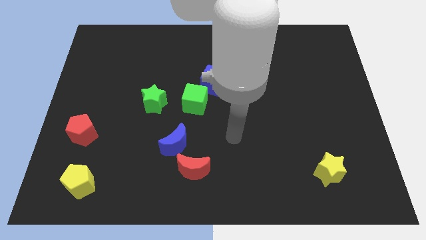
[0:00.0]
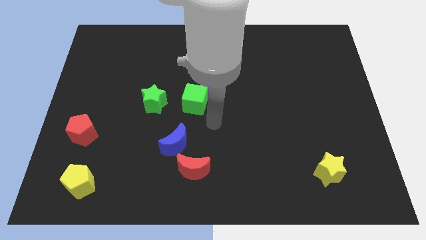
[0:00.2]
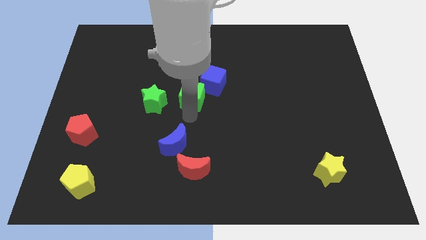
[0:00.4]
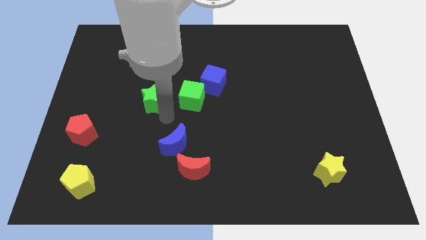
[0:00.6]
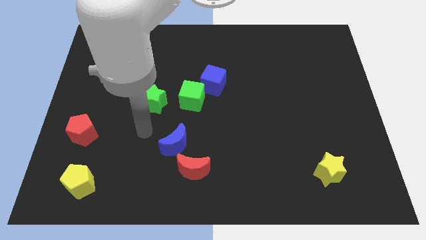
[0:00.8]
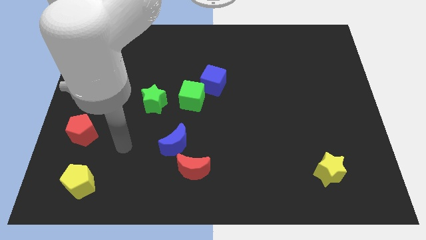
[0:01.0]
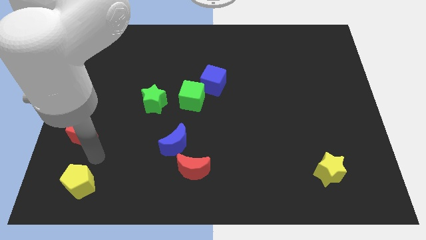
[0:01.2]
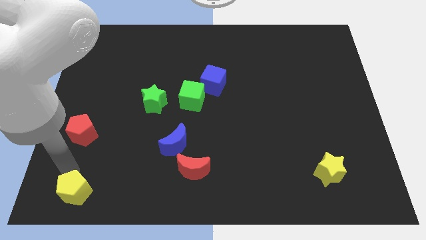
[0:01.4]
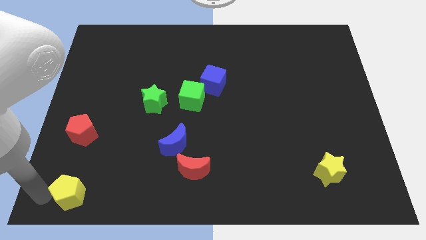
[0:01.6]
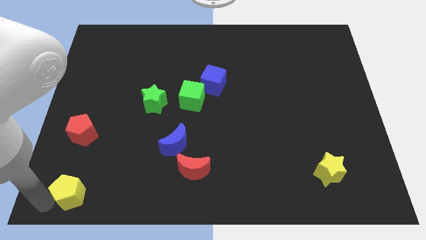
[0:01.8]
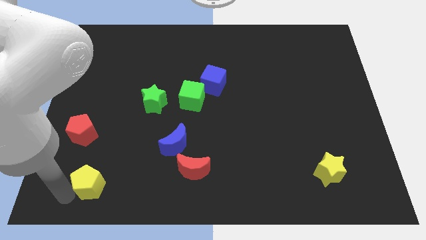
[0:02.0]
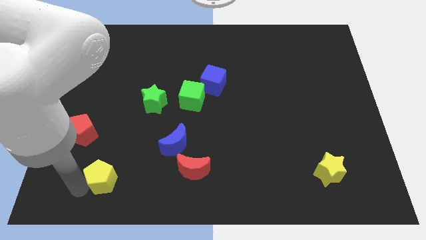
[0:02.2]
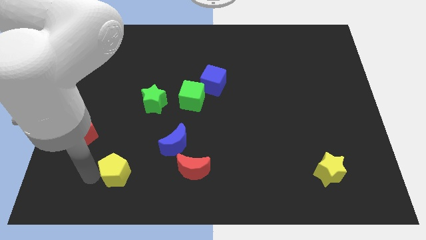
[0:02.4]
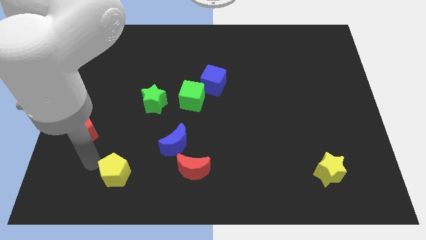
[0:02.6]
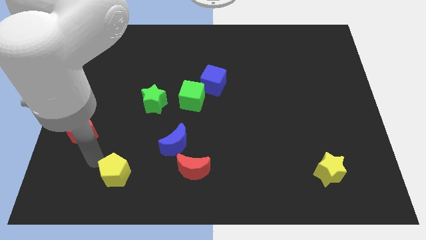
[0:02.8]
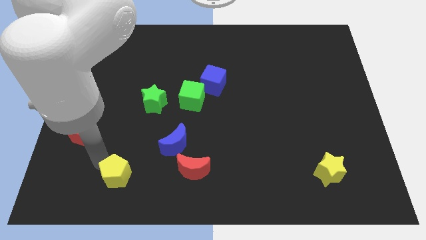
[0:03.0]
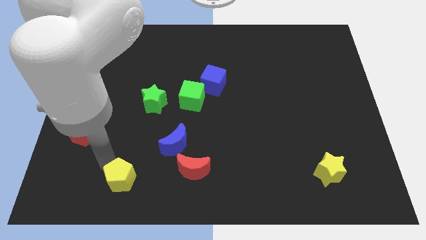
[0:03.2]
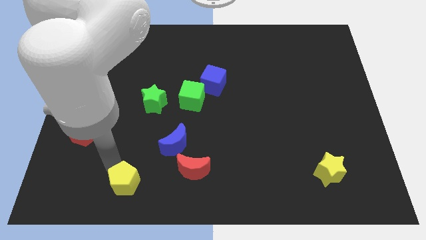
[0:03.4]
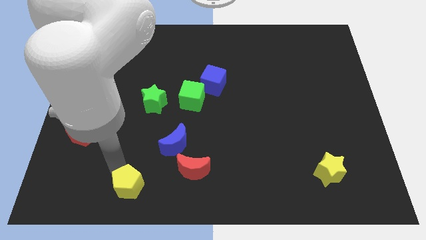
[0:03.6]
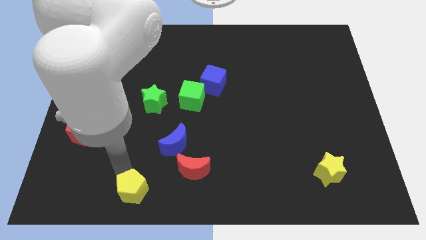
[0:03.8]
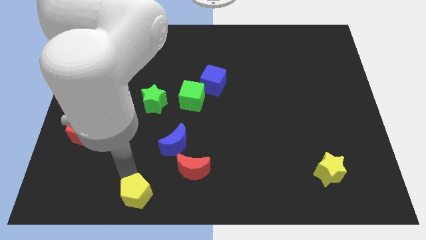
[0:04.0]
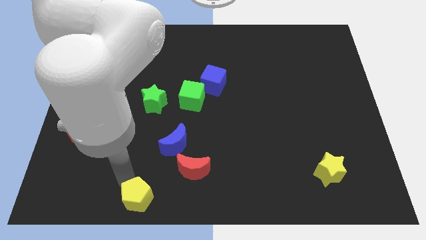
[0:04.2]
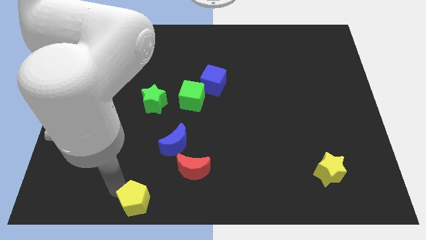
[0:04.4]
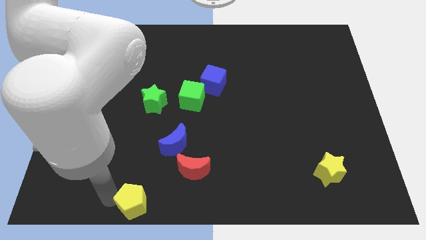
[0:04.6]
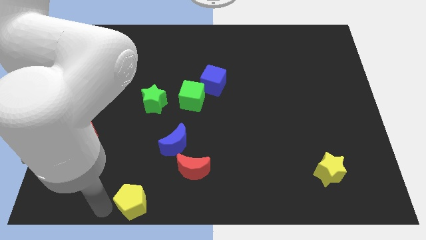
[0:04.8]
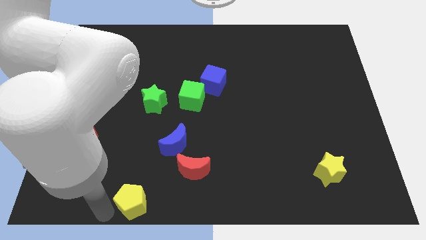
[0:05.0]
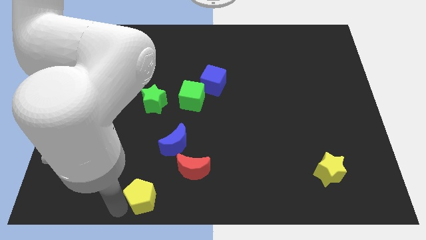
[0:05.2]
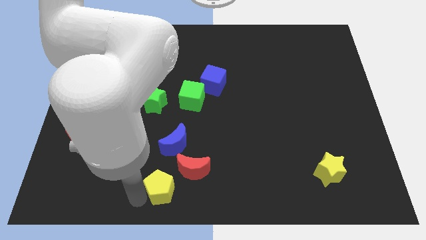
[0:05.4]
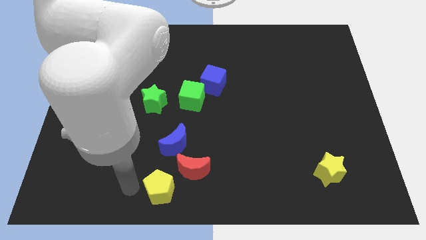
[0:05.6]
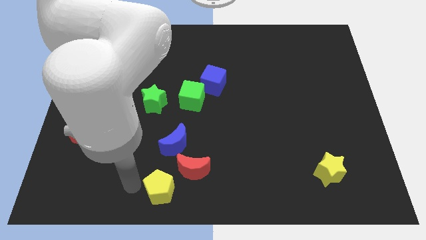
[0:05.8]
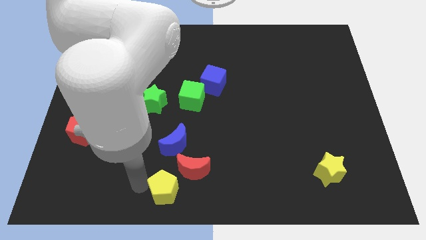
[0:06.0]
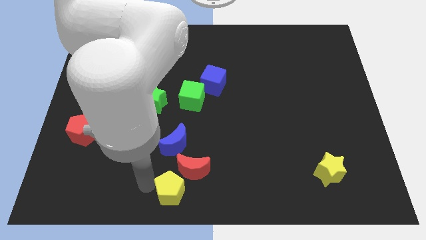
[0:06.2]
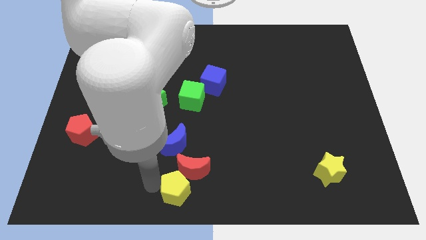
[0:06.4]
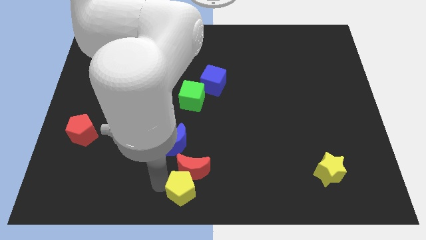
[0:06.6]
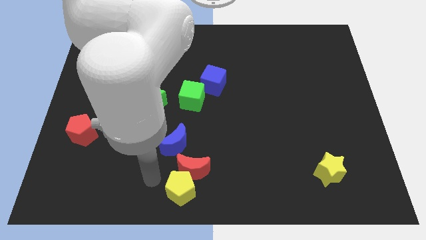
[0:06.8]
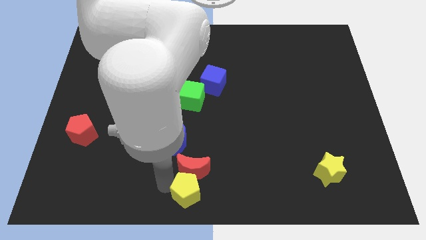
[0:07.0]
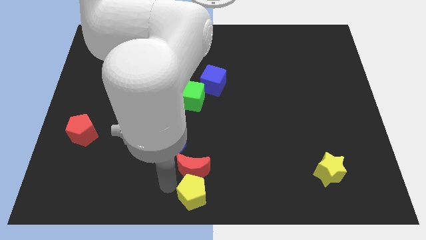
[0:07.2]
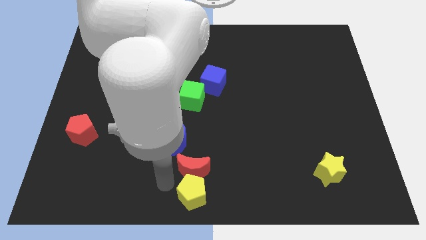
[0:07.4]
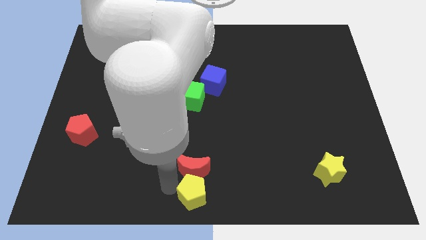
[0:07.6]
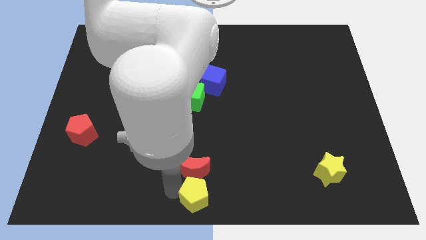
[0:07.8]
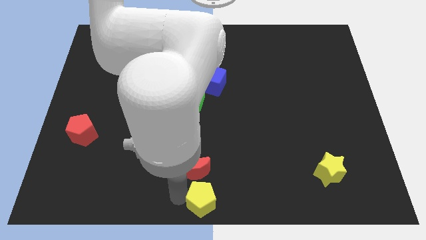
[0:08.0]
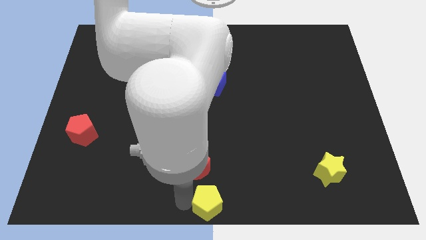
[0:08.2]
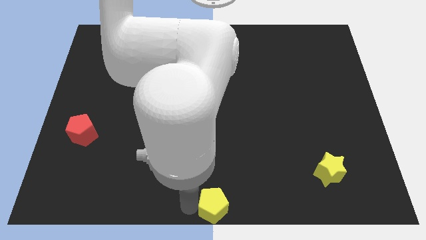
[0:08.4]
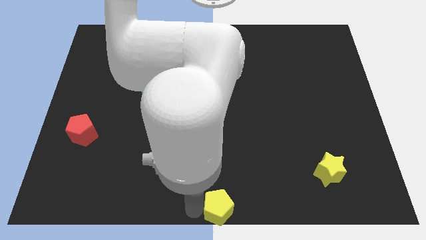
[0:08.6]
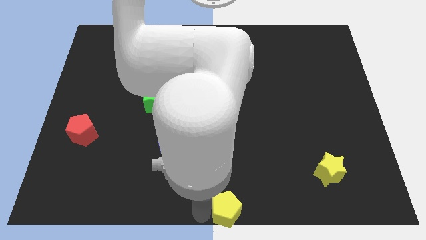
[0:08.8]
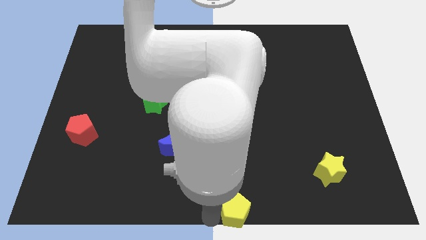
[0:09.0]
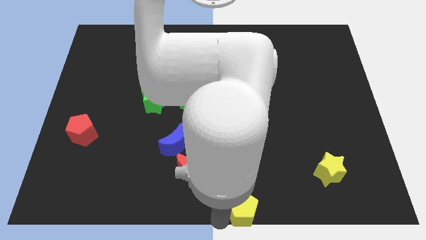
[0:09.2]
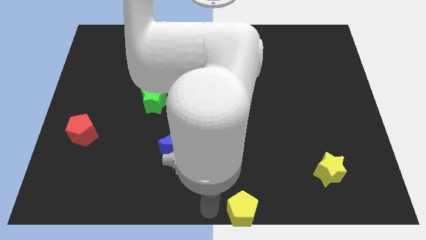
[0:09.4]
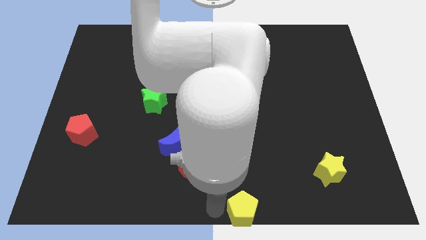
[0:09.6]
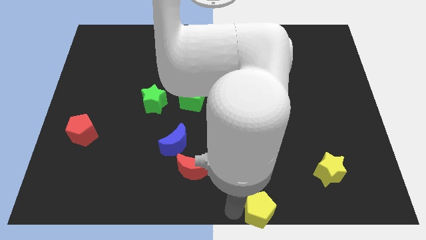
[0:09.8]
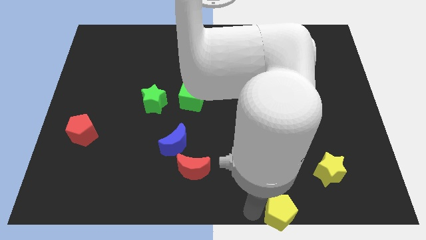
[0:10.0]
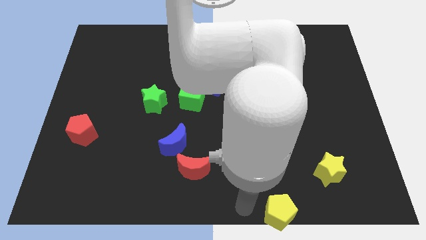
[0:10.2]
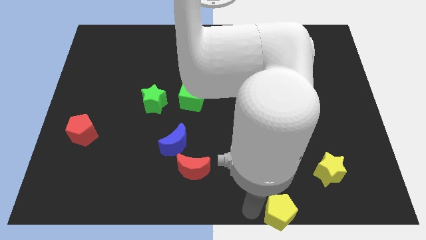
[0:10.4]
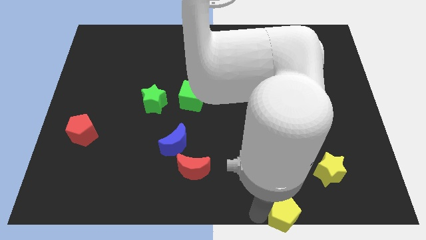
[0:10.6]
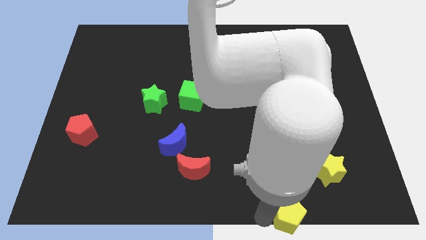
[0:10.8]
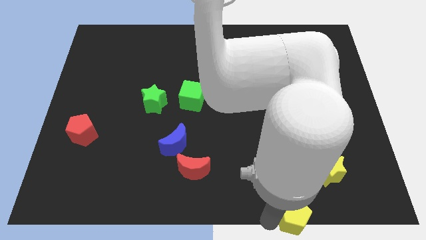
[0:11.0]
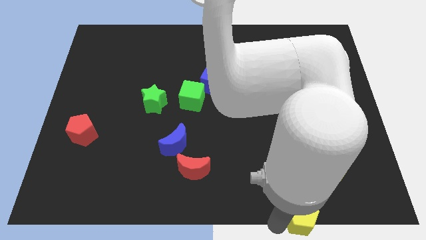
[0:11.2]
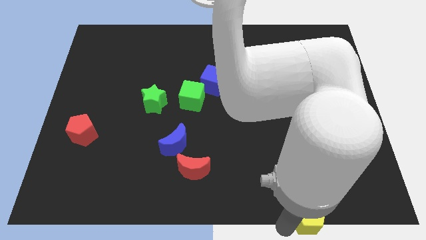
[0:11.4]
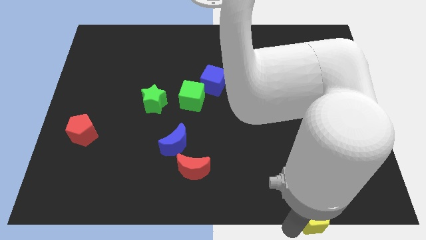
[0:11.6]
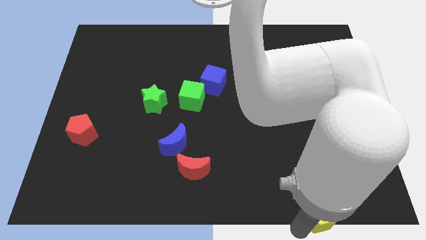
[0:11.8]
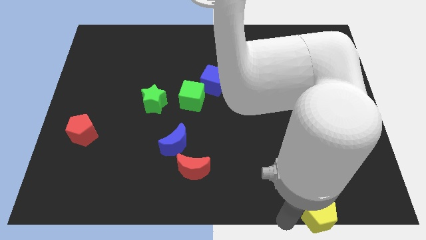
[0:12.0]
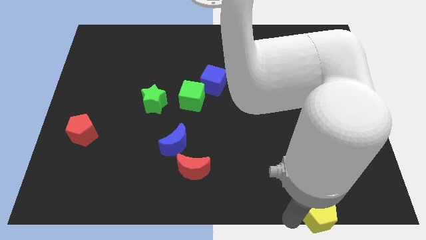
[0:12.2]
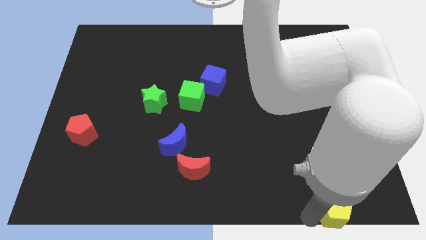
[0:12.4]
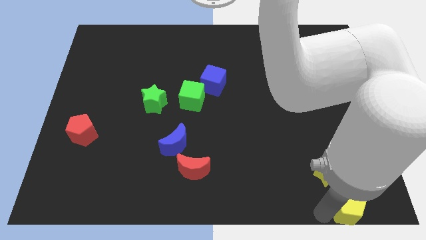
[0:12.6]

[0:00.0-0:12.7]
put the yellow pentagon to the bottom right corner
